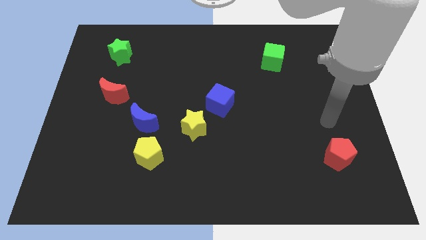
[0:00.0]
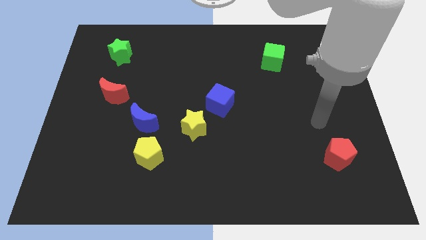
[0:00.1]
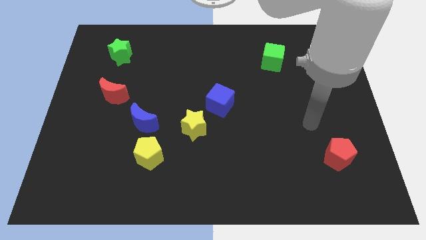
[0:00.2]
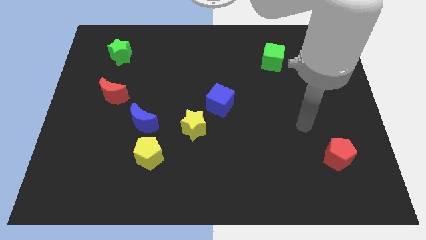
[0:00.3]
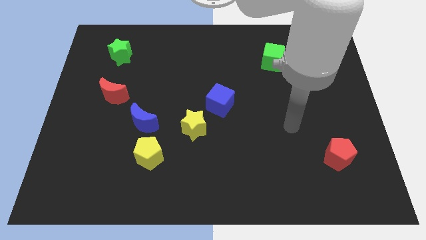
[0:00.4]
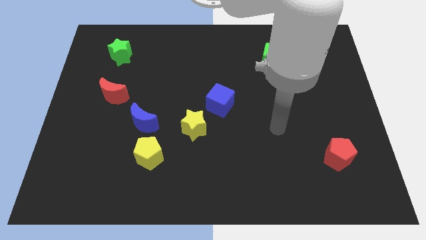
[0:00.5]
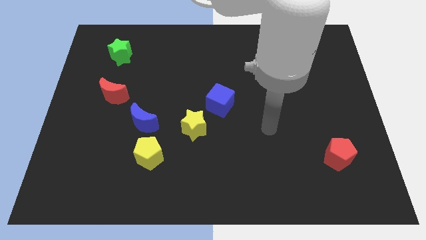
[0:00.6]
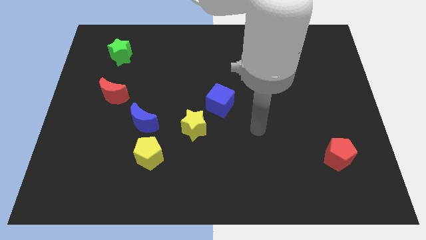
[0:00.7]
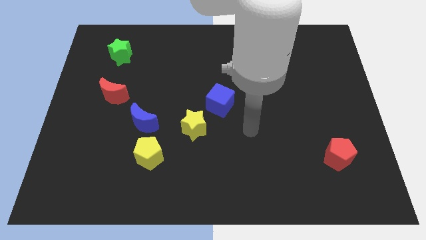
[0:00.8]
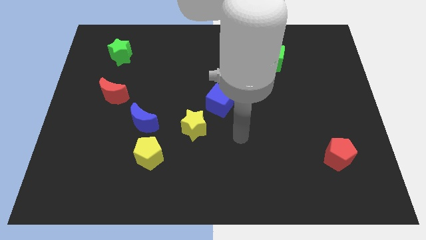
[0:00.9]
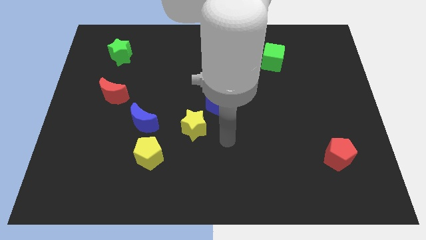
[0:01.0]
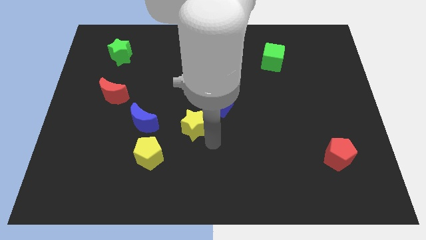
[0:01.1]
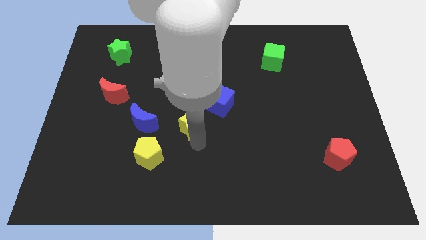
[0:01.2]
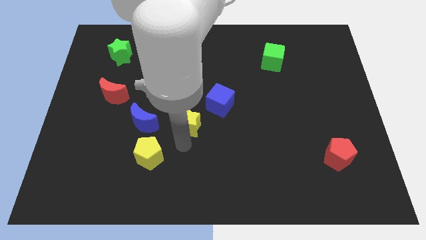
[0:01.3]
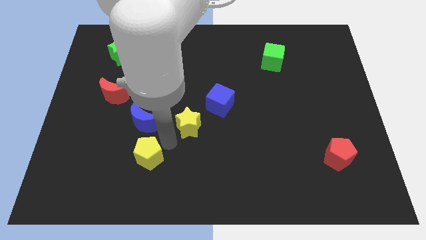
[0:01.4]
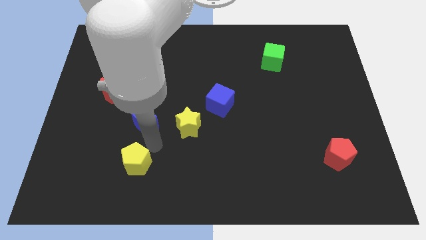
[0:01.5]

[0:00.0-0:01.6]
pull the blue moon apart from the yellow pentagon

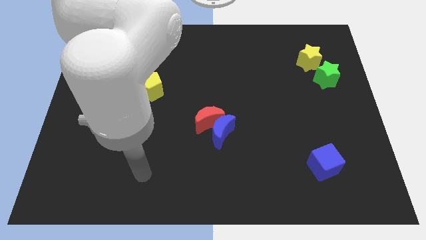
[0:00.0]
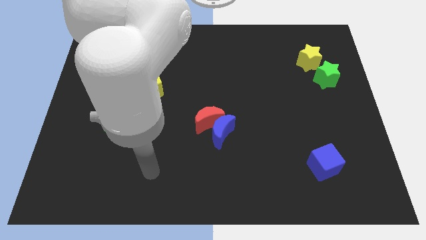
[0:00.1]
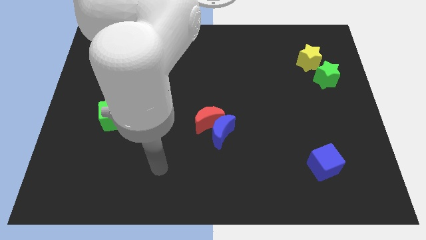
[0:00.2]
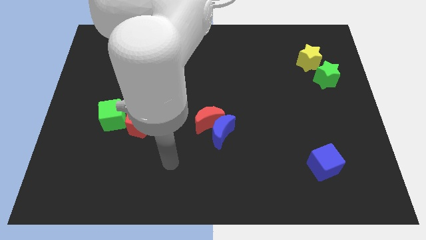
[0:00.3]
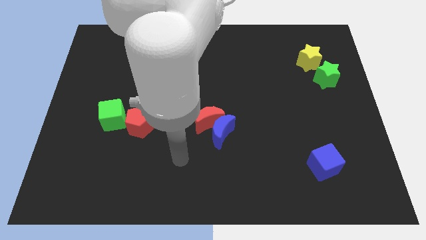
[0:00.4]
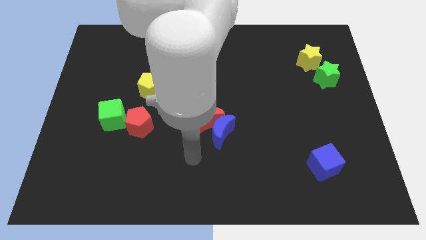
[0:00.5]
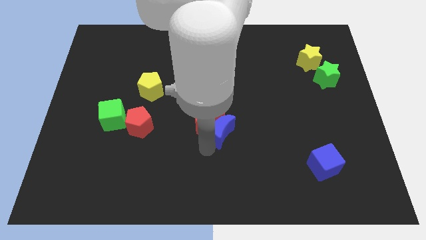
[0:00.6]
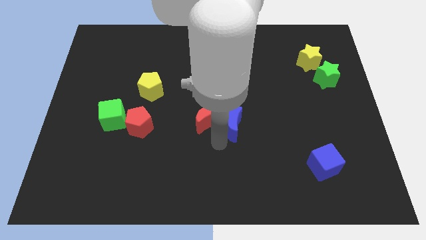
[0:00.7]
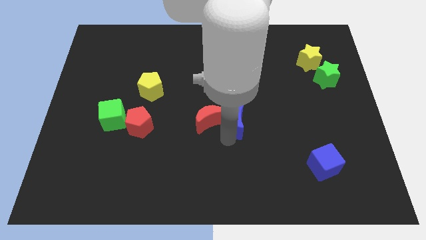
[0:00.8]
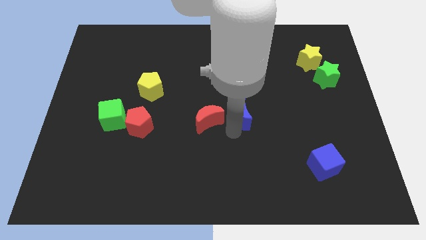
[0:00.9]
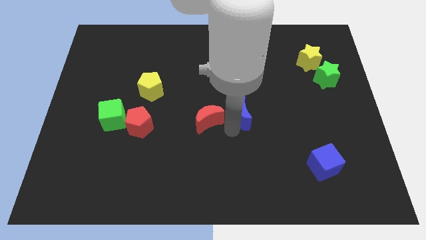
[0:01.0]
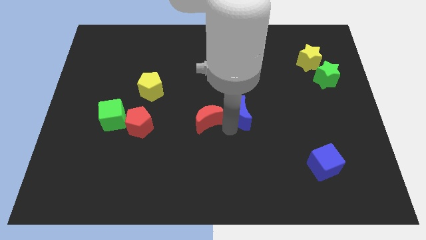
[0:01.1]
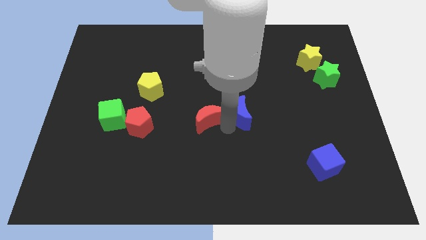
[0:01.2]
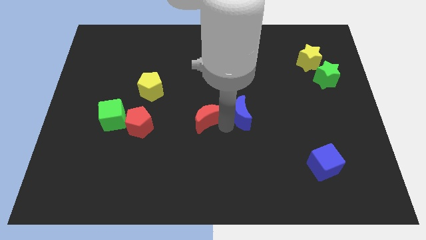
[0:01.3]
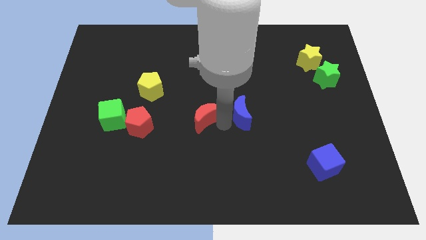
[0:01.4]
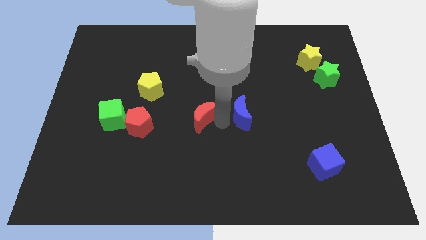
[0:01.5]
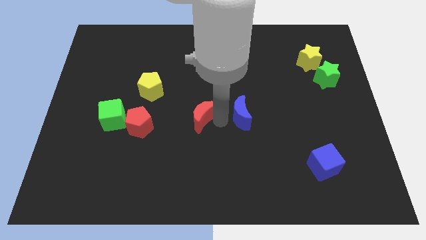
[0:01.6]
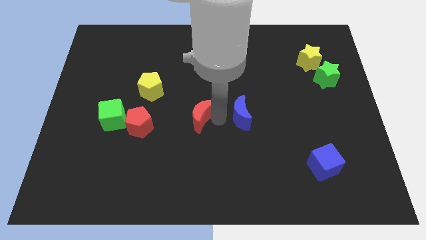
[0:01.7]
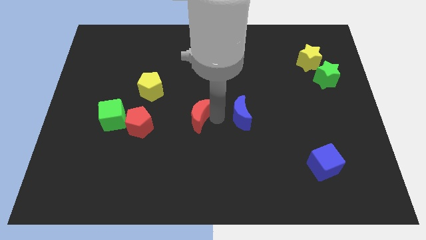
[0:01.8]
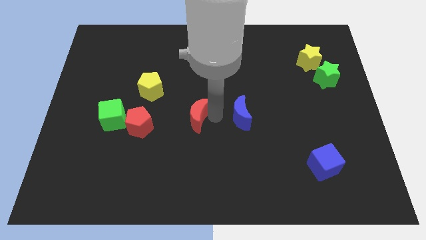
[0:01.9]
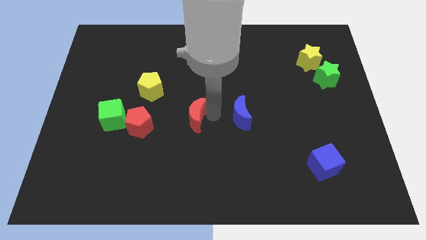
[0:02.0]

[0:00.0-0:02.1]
separate the red moon from the blue moon

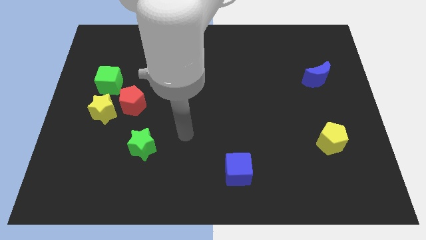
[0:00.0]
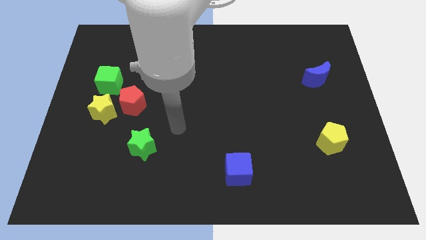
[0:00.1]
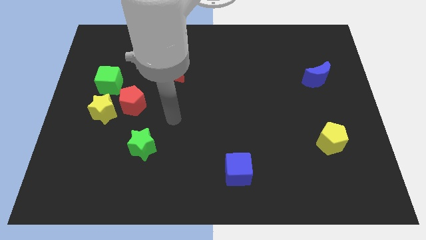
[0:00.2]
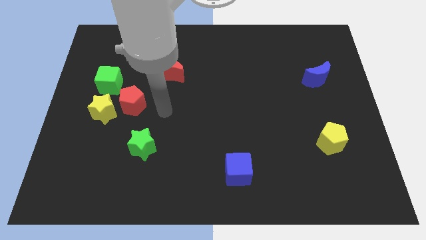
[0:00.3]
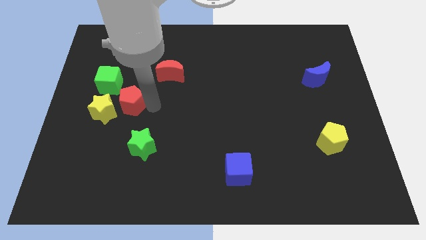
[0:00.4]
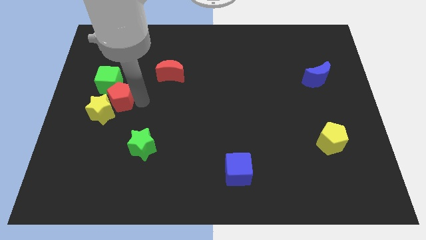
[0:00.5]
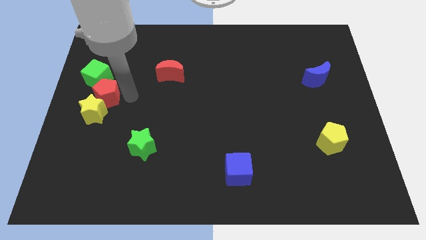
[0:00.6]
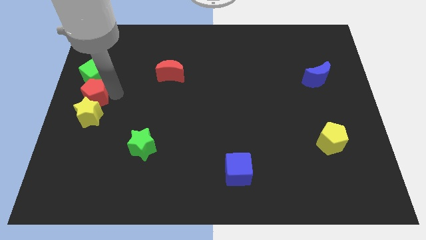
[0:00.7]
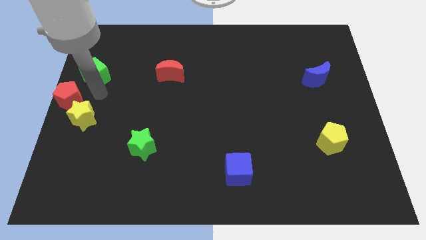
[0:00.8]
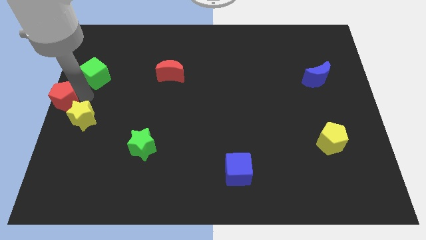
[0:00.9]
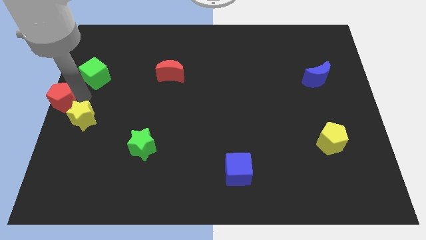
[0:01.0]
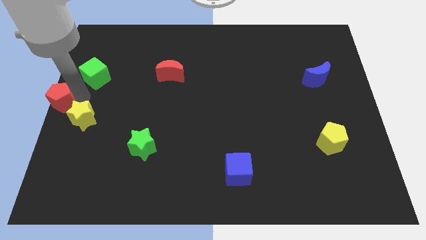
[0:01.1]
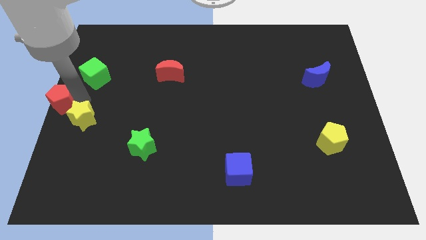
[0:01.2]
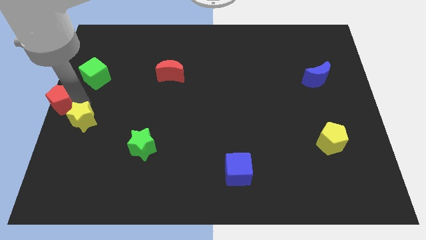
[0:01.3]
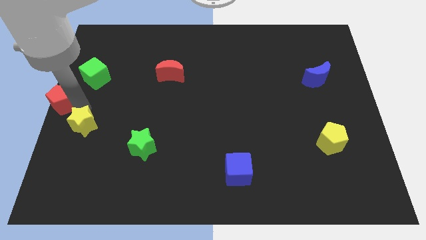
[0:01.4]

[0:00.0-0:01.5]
pull the yellow star apart from the red pentagon and green cube

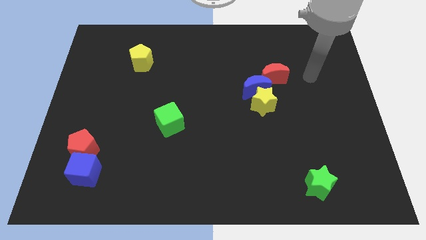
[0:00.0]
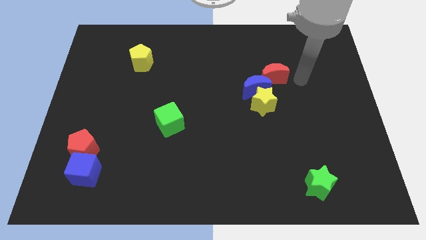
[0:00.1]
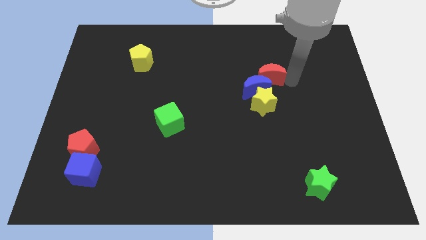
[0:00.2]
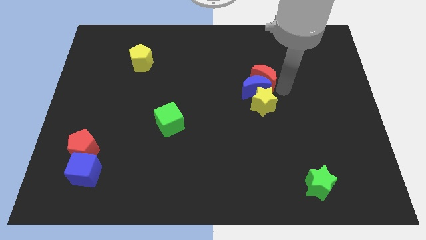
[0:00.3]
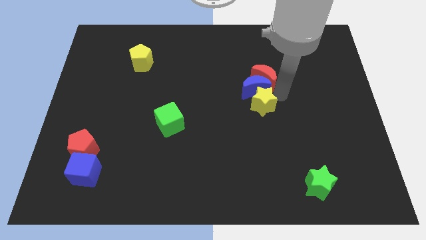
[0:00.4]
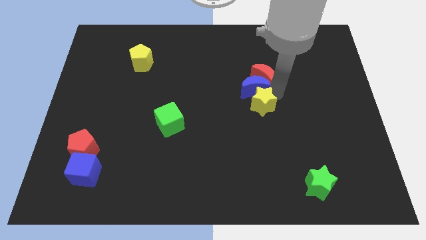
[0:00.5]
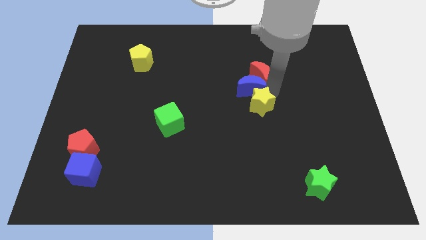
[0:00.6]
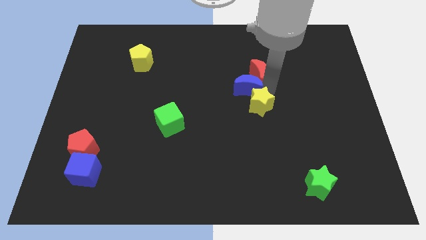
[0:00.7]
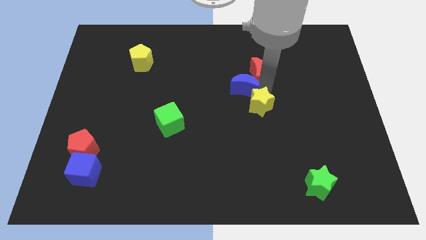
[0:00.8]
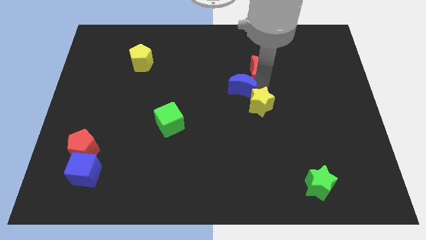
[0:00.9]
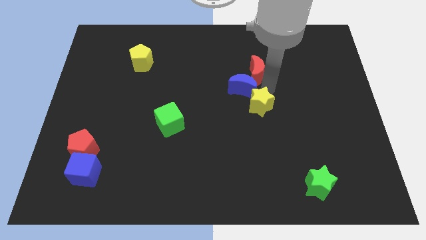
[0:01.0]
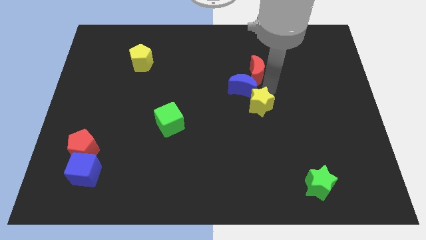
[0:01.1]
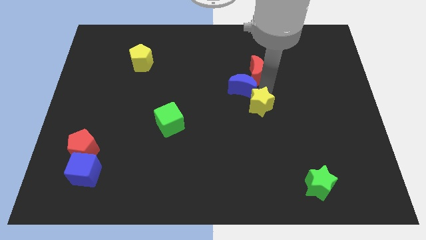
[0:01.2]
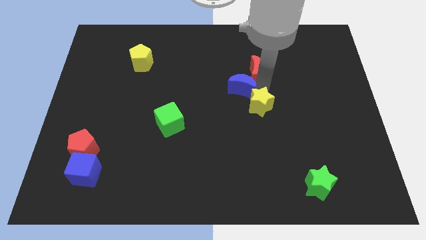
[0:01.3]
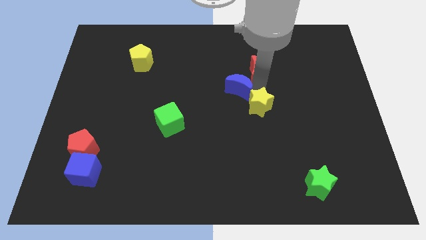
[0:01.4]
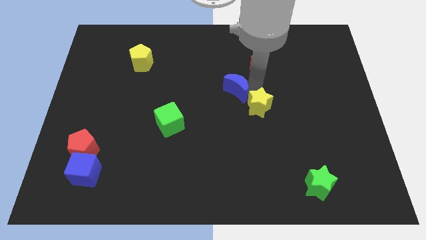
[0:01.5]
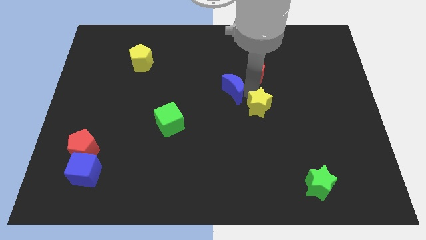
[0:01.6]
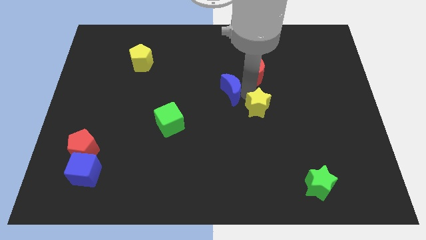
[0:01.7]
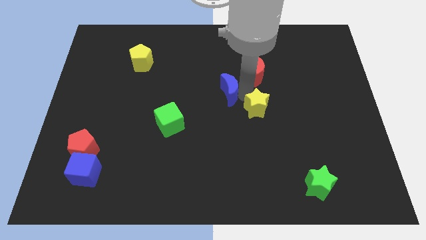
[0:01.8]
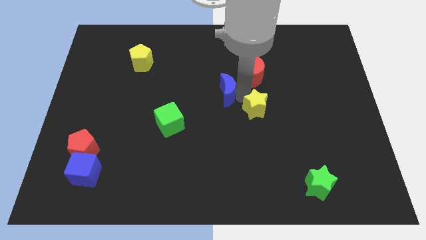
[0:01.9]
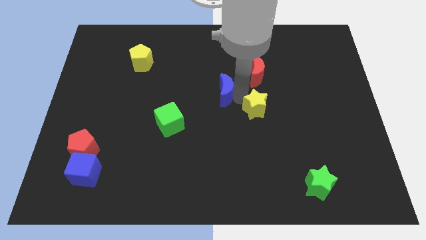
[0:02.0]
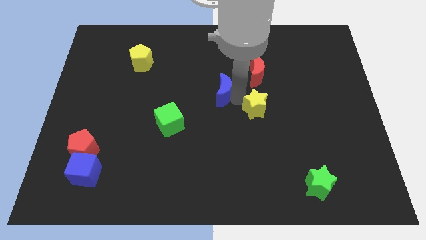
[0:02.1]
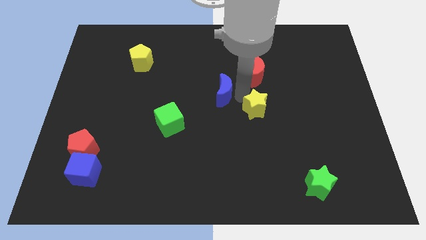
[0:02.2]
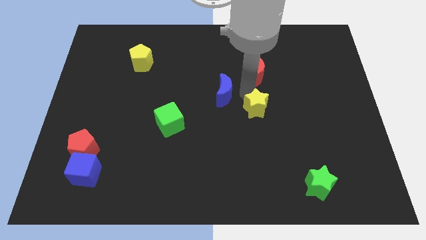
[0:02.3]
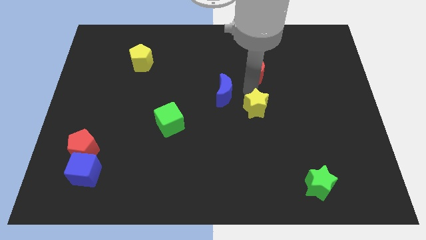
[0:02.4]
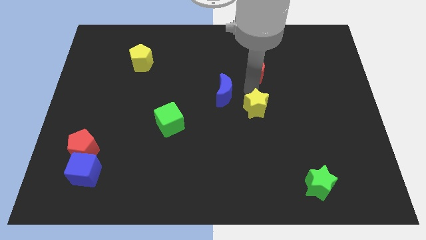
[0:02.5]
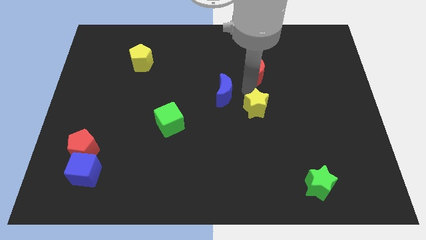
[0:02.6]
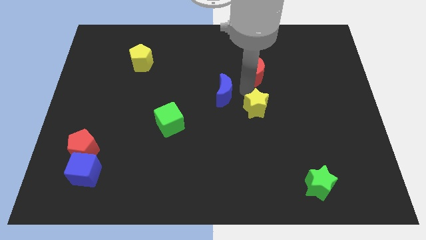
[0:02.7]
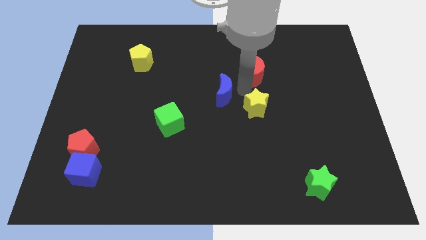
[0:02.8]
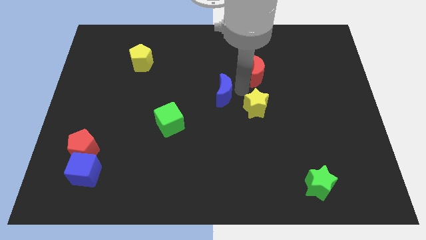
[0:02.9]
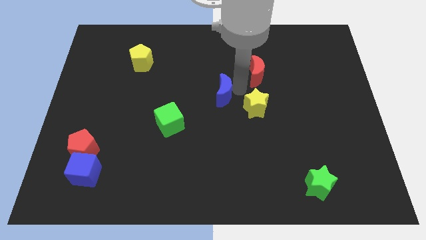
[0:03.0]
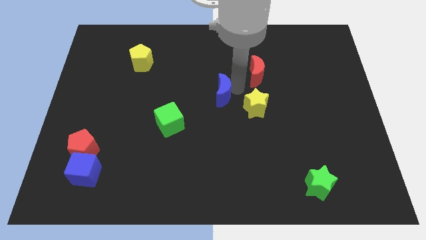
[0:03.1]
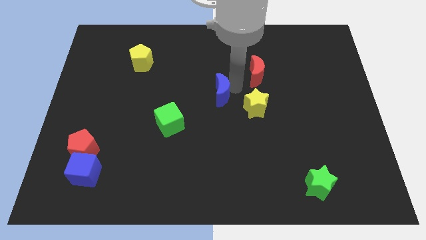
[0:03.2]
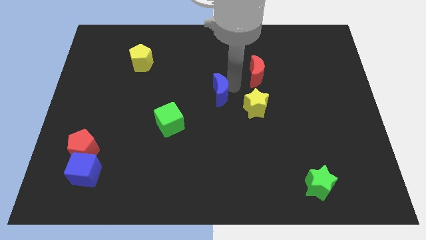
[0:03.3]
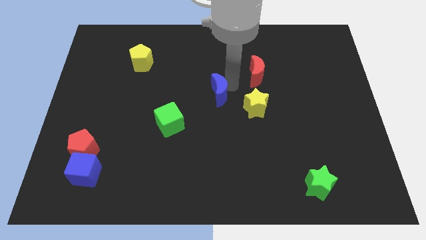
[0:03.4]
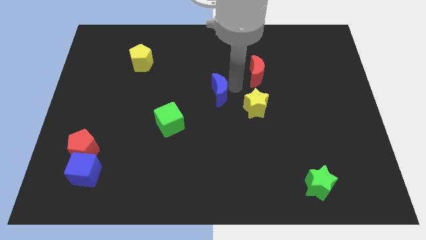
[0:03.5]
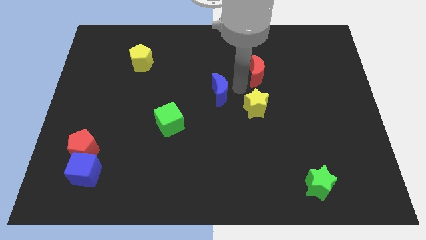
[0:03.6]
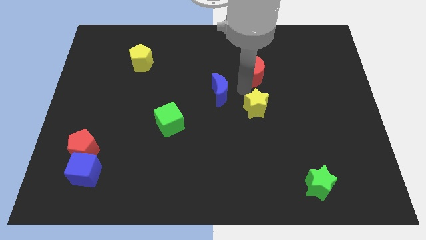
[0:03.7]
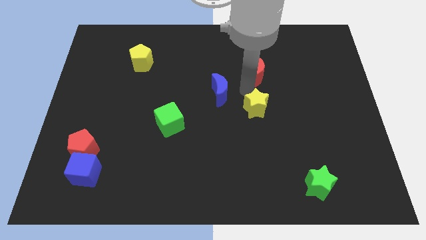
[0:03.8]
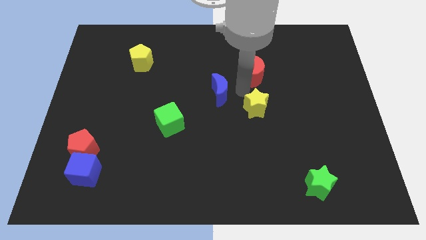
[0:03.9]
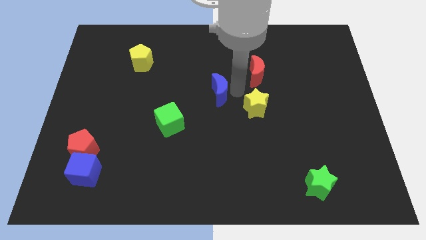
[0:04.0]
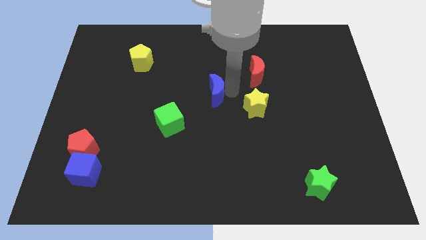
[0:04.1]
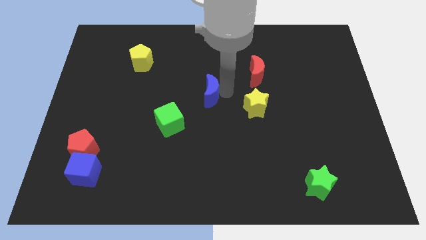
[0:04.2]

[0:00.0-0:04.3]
move the blue moon away from the yellow star and red moon
